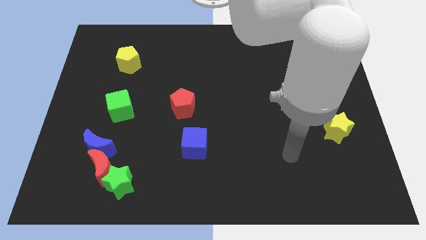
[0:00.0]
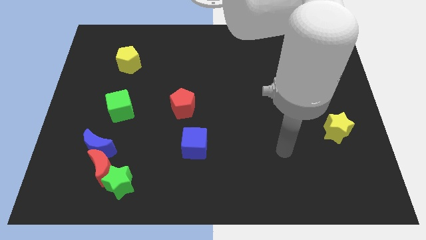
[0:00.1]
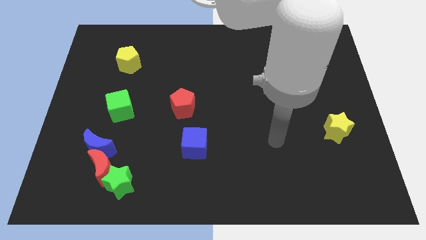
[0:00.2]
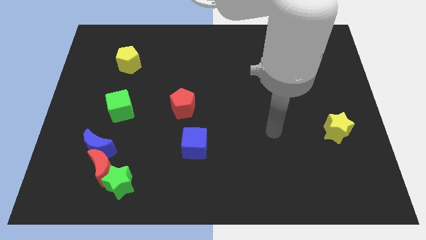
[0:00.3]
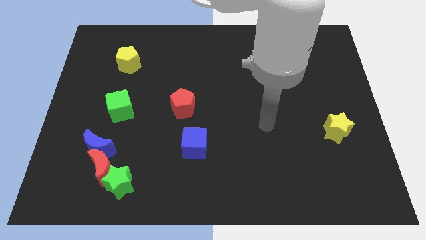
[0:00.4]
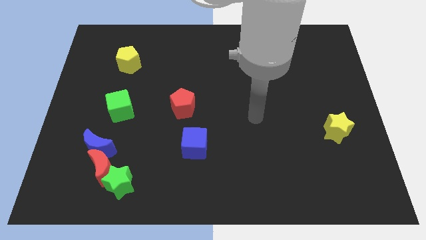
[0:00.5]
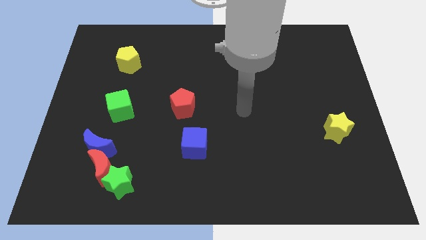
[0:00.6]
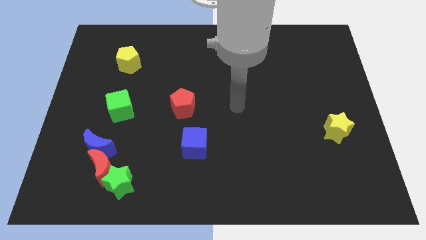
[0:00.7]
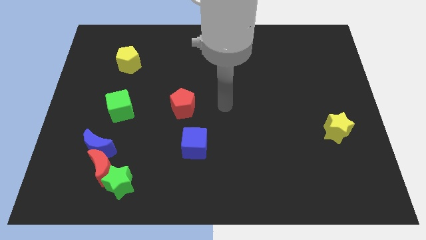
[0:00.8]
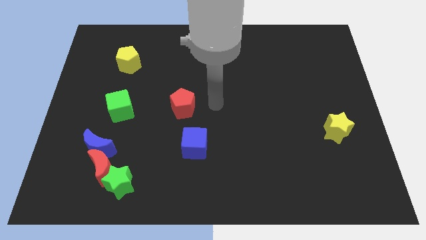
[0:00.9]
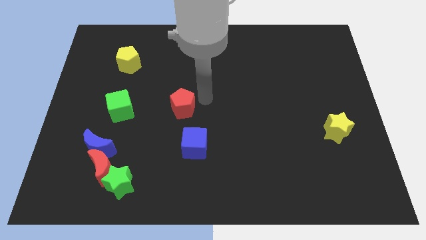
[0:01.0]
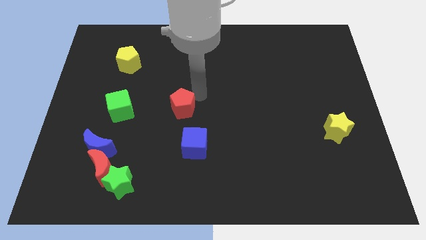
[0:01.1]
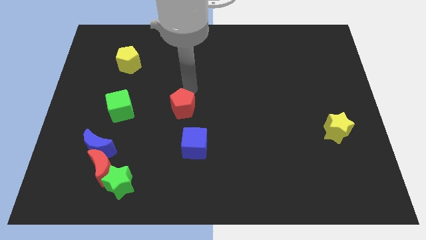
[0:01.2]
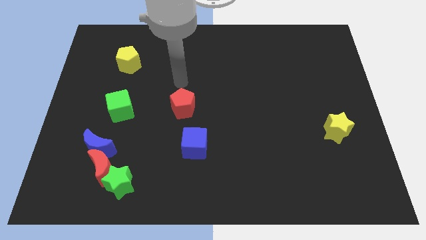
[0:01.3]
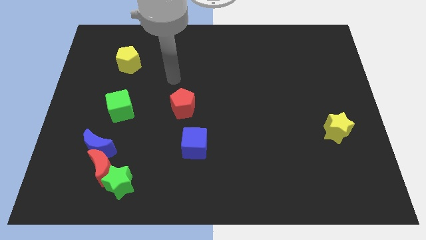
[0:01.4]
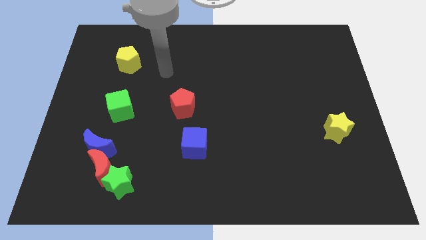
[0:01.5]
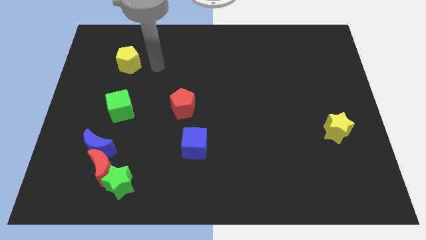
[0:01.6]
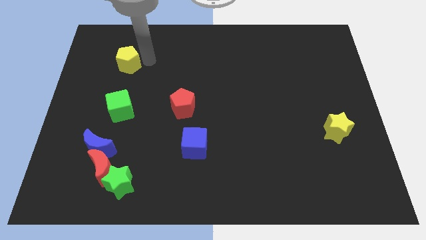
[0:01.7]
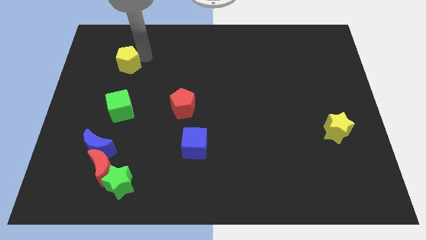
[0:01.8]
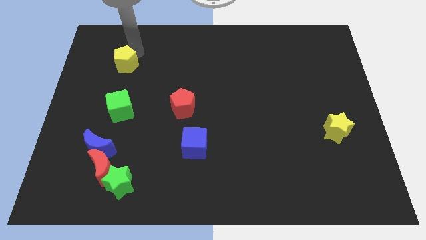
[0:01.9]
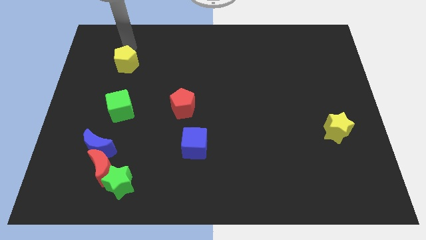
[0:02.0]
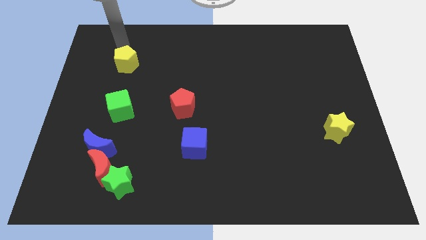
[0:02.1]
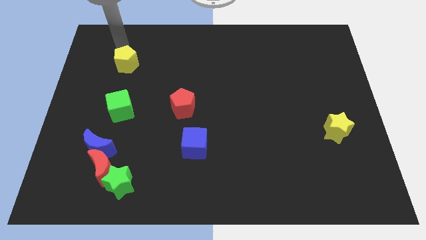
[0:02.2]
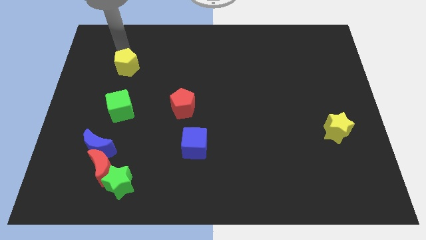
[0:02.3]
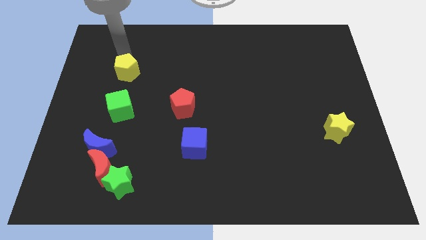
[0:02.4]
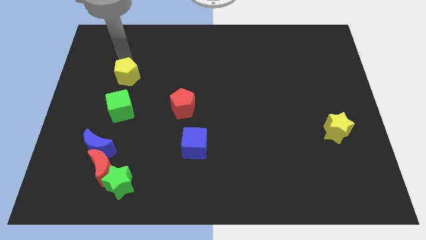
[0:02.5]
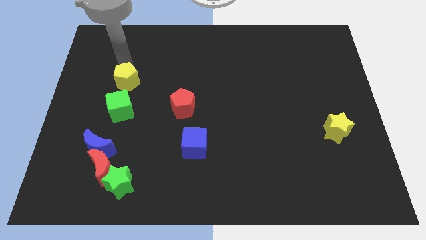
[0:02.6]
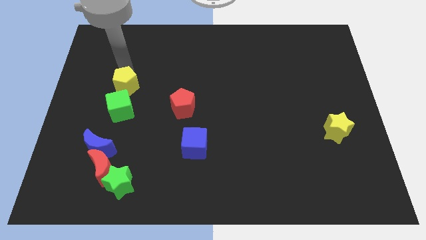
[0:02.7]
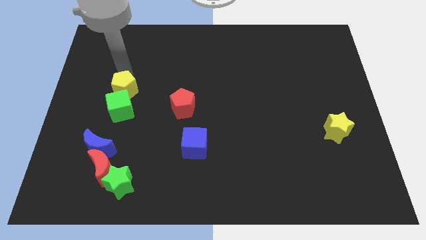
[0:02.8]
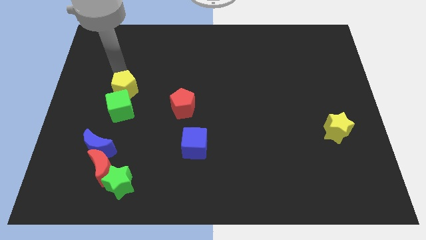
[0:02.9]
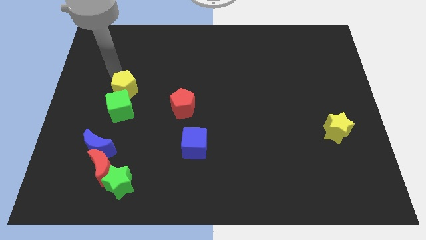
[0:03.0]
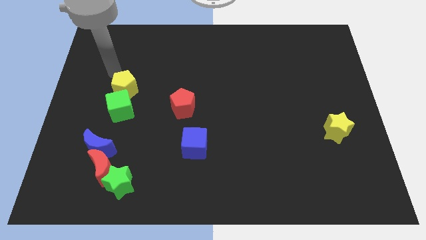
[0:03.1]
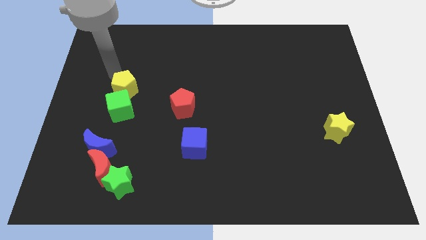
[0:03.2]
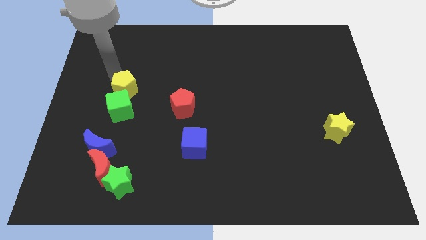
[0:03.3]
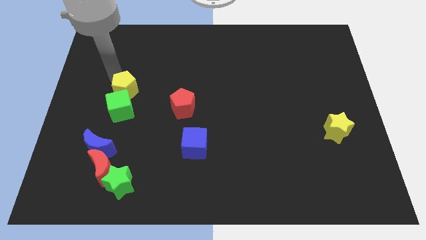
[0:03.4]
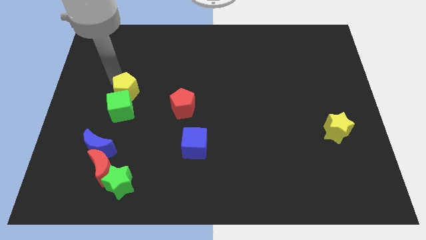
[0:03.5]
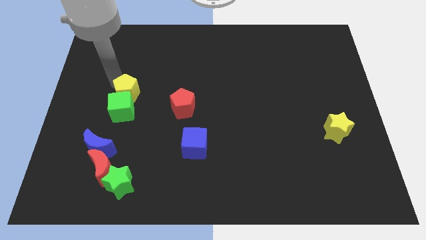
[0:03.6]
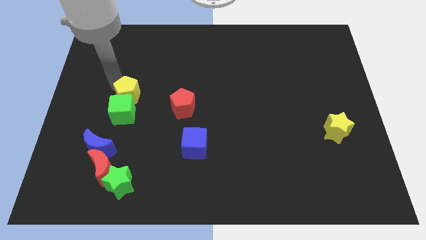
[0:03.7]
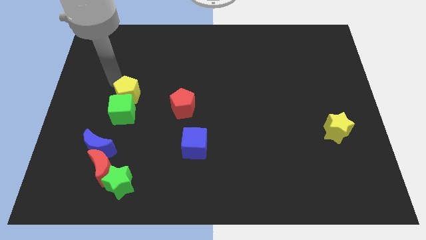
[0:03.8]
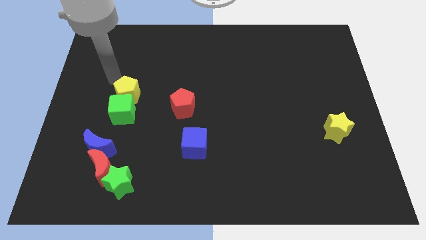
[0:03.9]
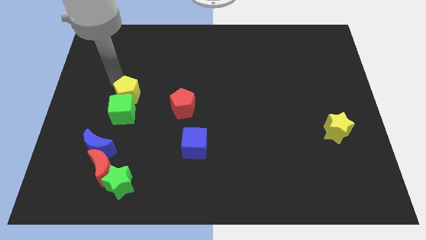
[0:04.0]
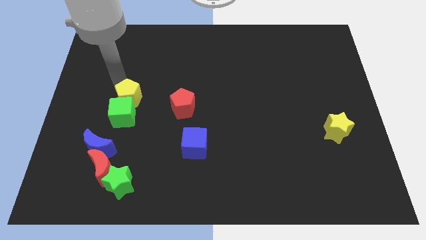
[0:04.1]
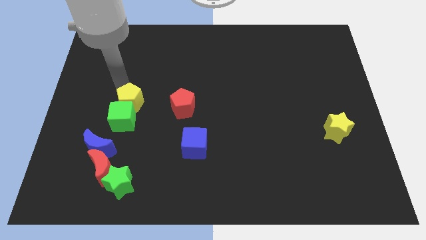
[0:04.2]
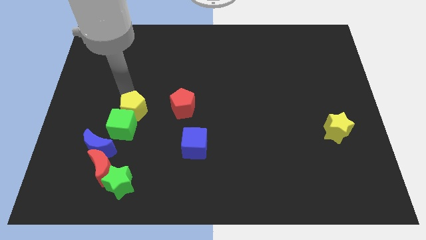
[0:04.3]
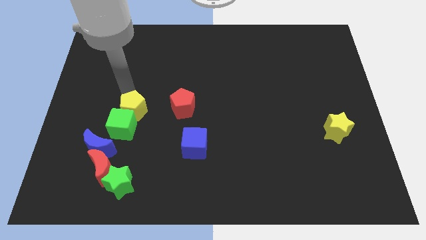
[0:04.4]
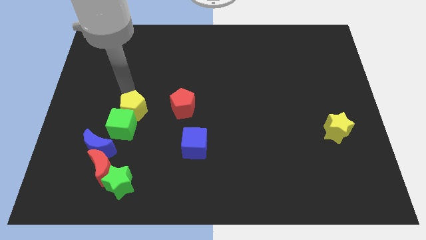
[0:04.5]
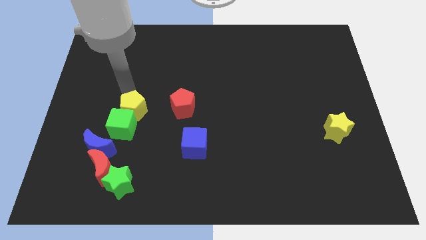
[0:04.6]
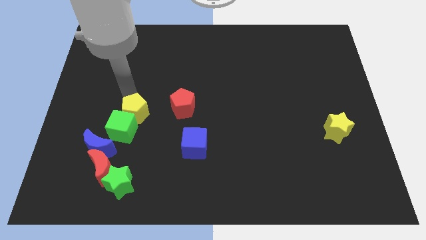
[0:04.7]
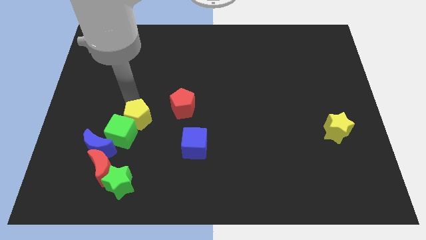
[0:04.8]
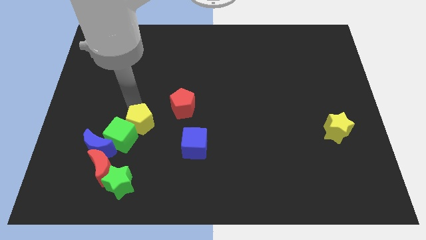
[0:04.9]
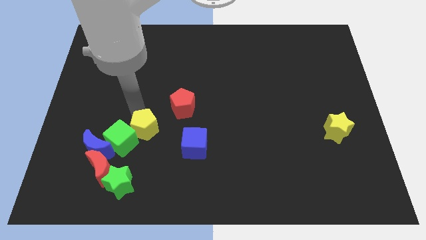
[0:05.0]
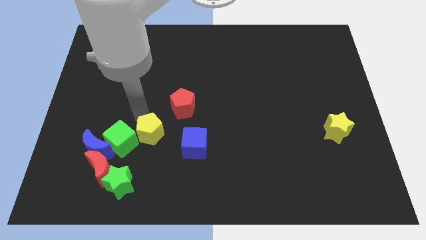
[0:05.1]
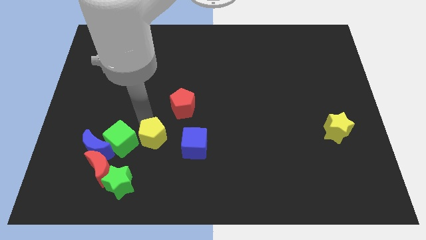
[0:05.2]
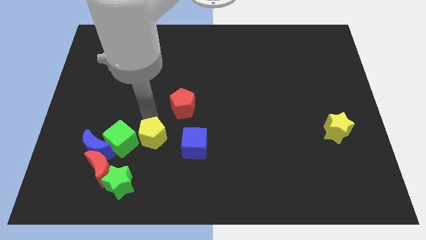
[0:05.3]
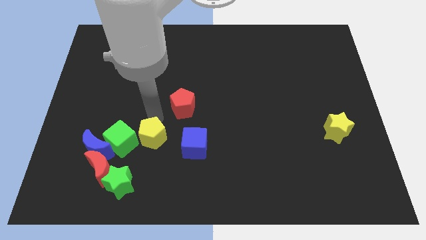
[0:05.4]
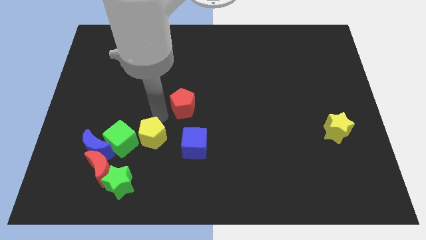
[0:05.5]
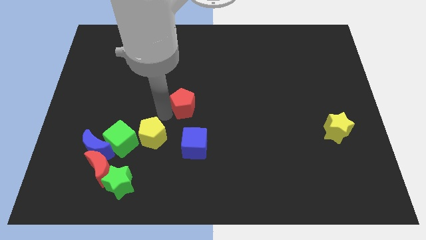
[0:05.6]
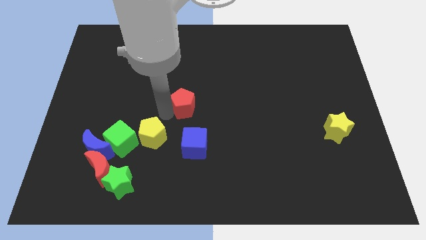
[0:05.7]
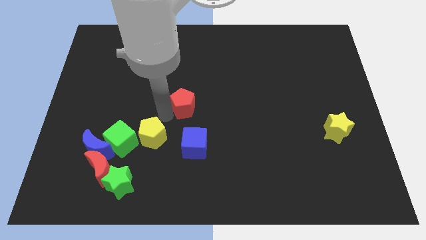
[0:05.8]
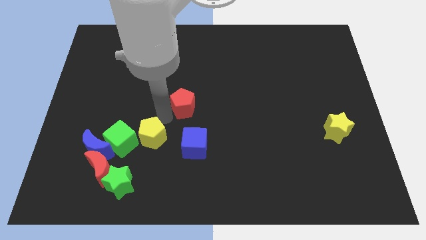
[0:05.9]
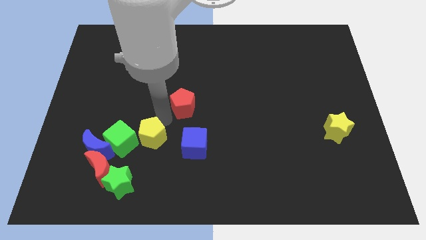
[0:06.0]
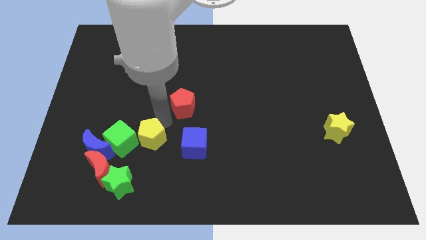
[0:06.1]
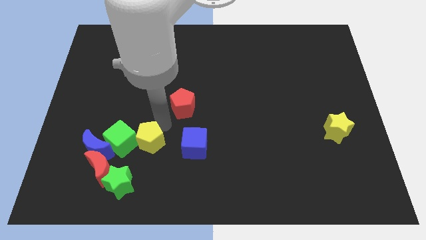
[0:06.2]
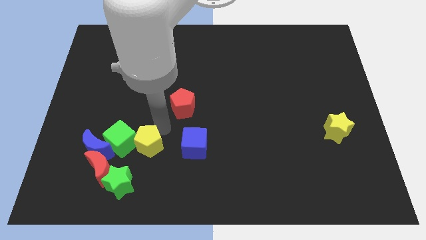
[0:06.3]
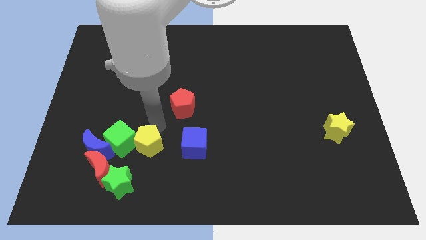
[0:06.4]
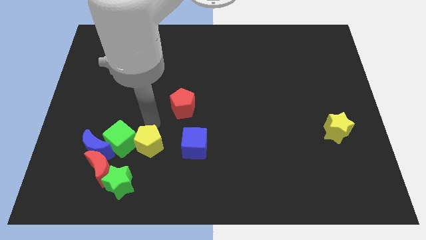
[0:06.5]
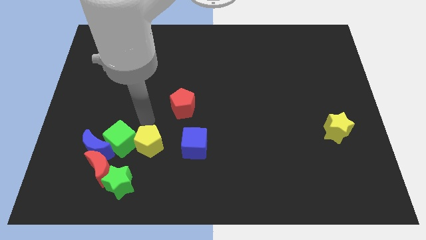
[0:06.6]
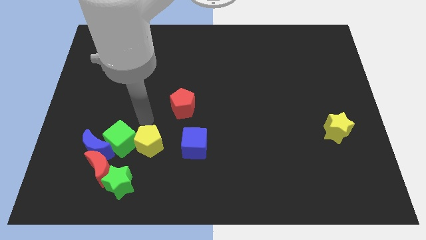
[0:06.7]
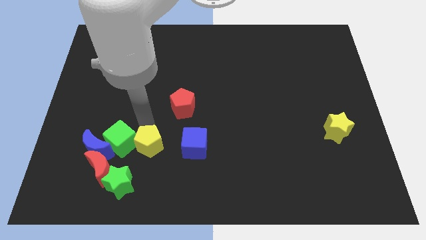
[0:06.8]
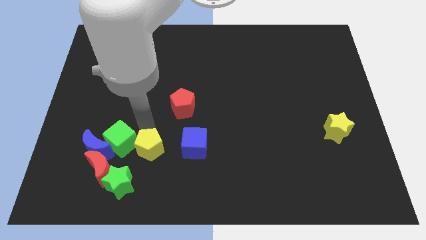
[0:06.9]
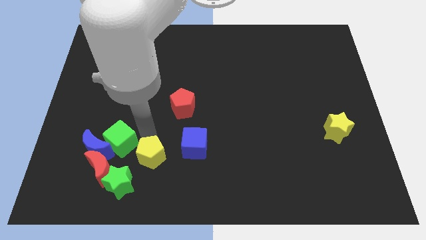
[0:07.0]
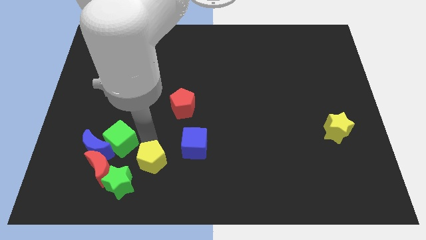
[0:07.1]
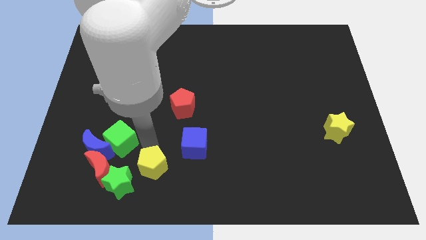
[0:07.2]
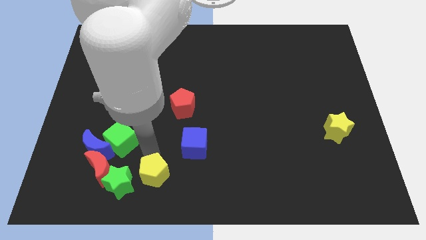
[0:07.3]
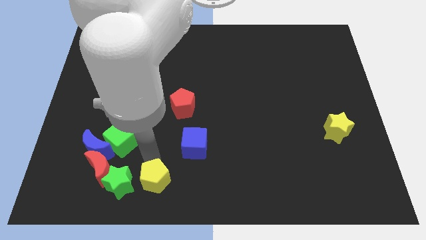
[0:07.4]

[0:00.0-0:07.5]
move the yellow pentagon to the bottom
